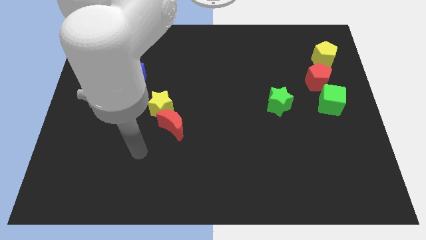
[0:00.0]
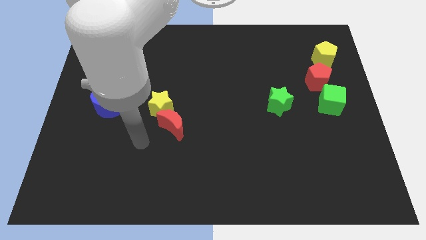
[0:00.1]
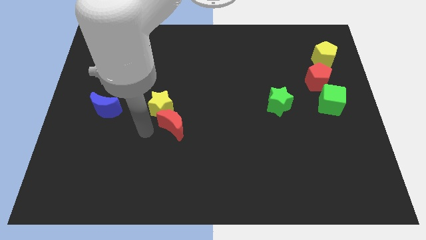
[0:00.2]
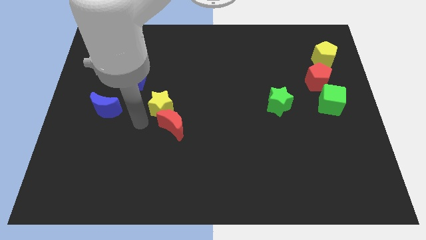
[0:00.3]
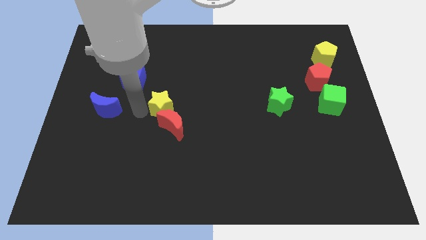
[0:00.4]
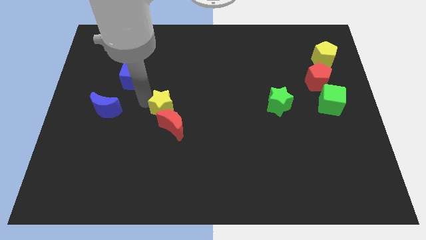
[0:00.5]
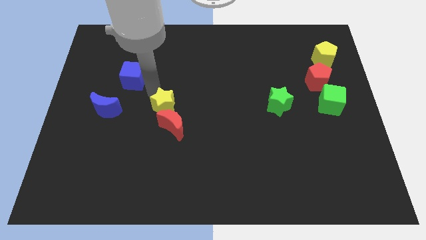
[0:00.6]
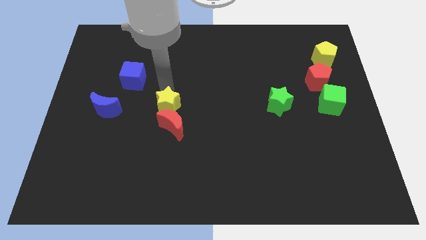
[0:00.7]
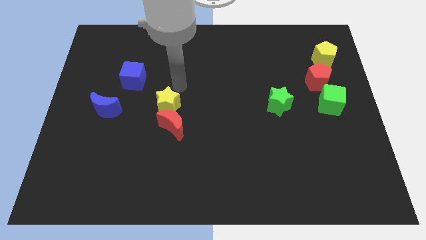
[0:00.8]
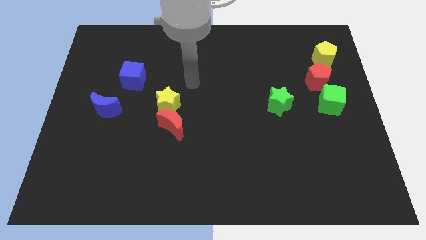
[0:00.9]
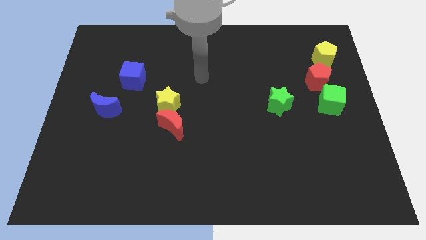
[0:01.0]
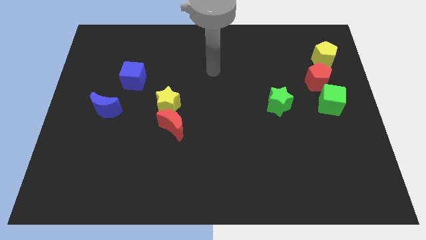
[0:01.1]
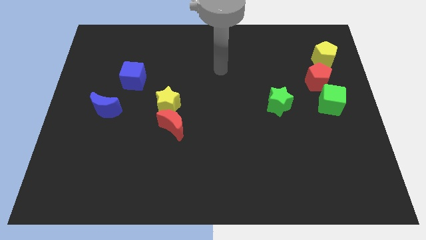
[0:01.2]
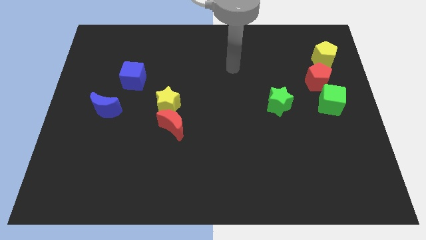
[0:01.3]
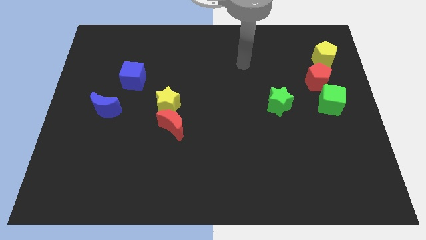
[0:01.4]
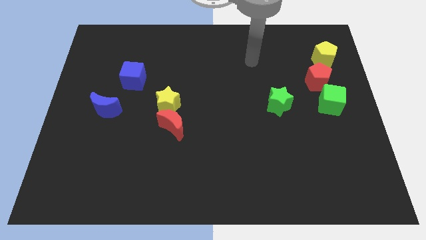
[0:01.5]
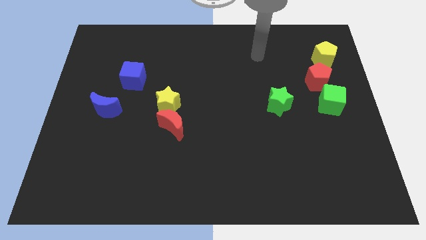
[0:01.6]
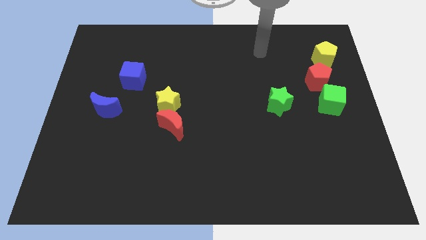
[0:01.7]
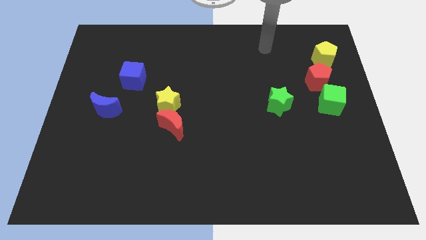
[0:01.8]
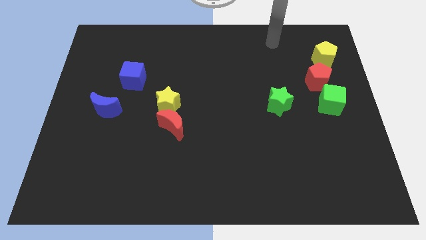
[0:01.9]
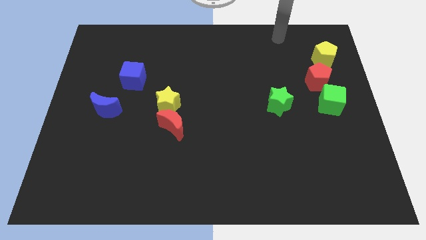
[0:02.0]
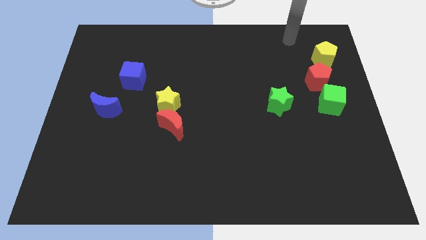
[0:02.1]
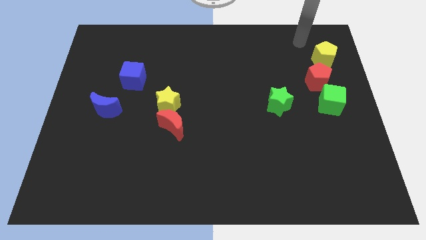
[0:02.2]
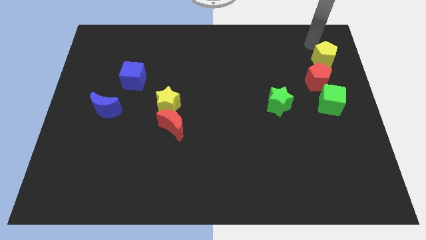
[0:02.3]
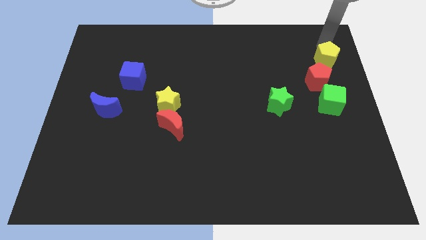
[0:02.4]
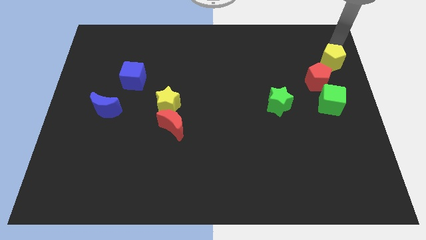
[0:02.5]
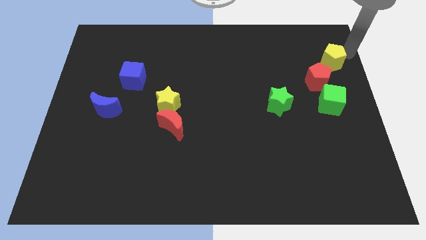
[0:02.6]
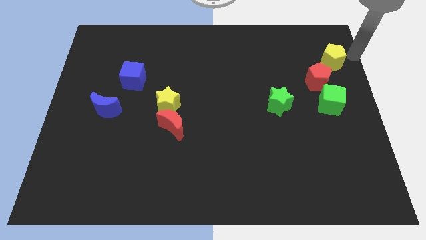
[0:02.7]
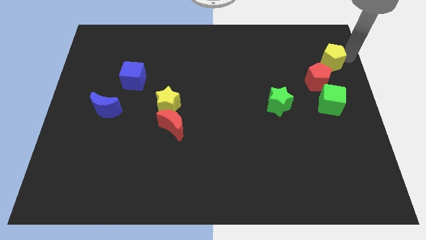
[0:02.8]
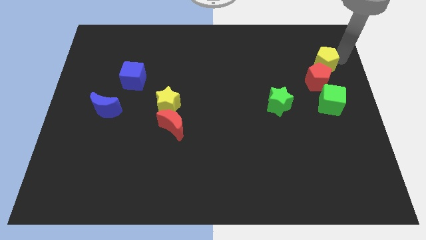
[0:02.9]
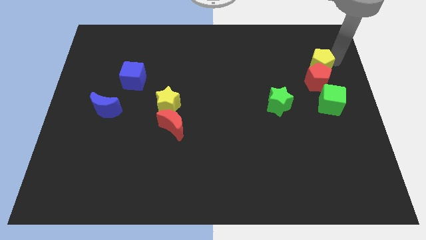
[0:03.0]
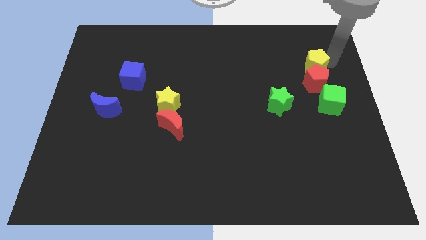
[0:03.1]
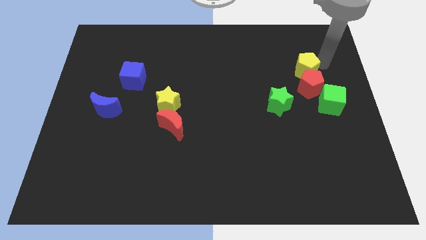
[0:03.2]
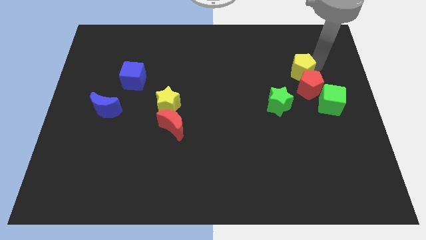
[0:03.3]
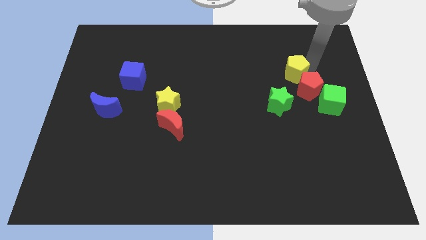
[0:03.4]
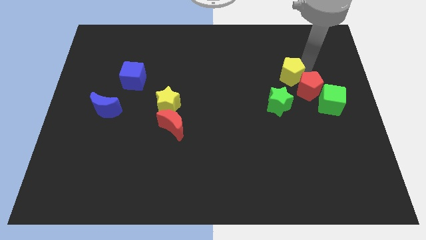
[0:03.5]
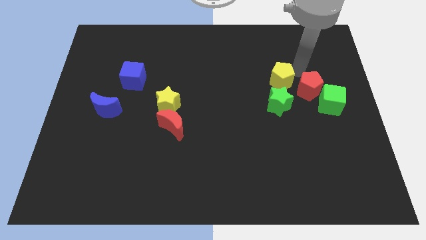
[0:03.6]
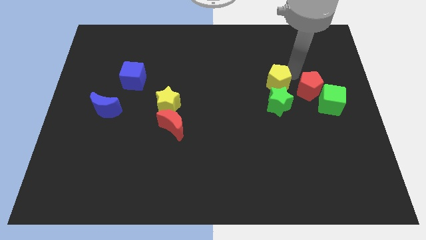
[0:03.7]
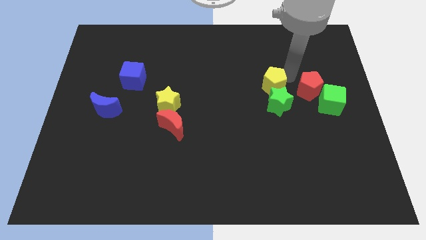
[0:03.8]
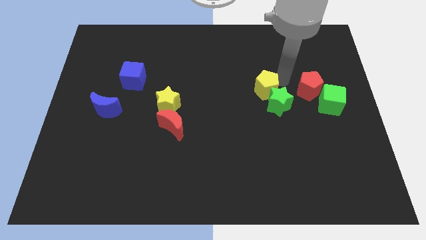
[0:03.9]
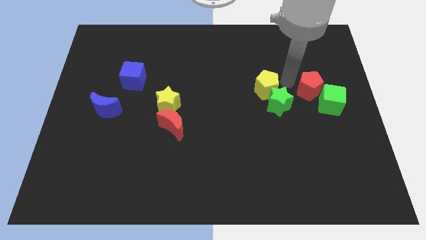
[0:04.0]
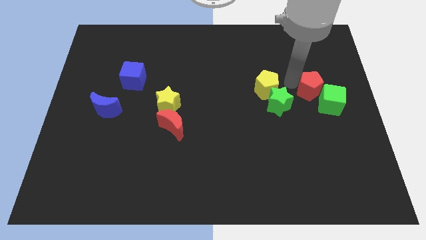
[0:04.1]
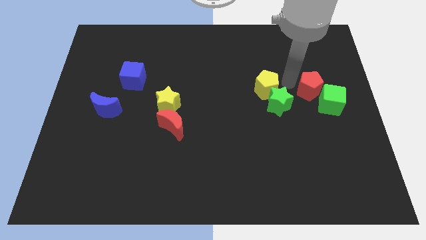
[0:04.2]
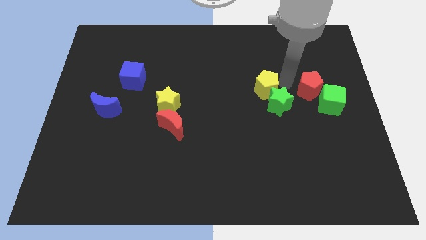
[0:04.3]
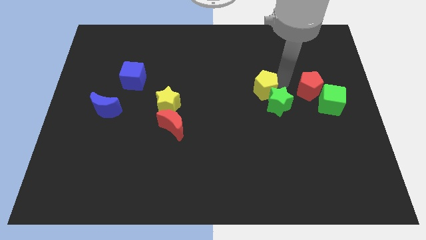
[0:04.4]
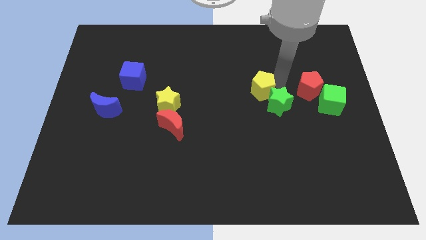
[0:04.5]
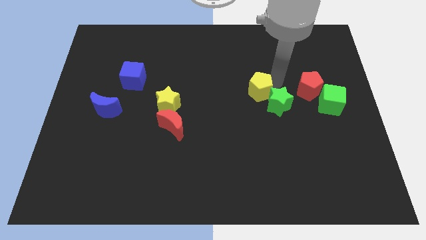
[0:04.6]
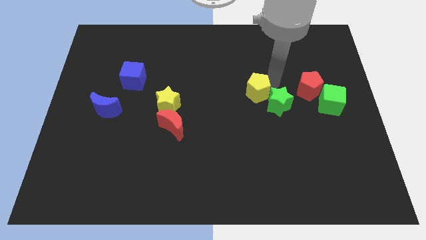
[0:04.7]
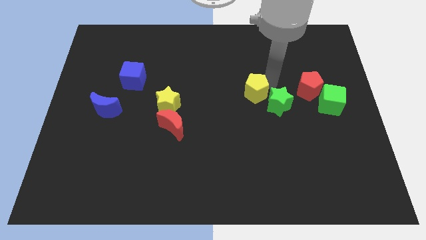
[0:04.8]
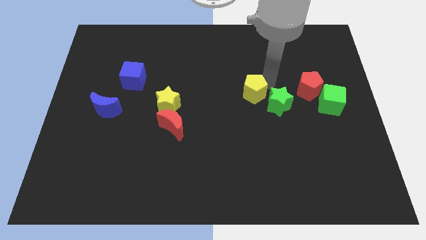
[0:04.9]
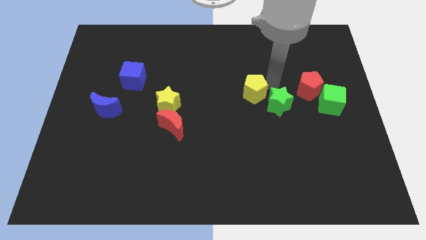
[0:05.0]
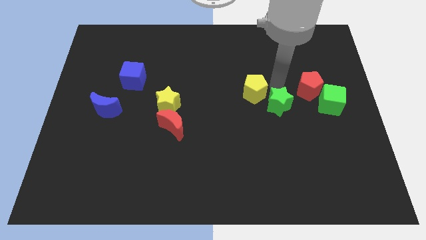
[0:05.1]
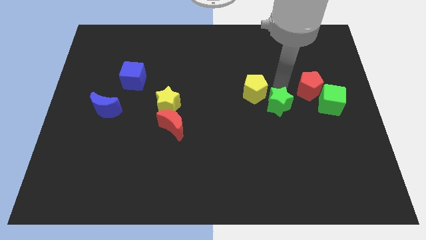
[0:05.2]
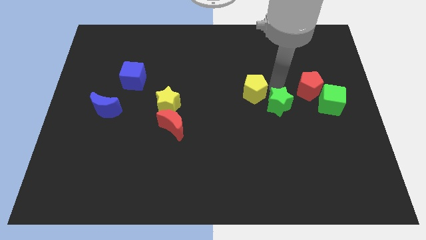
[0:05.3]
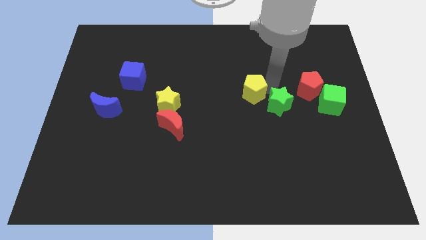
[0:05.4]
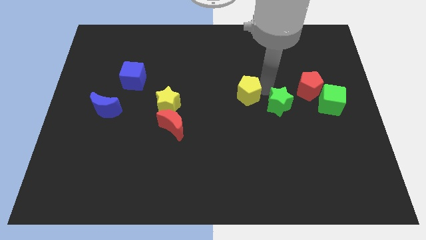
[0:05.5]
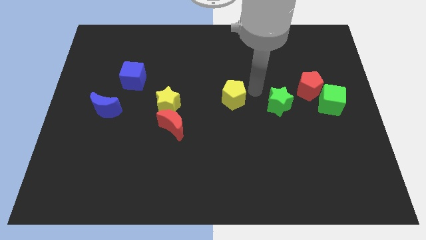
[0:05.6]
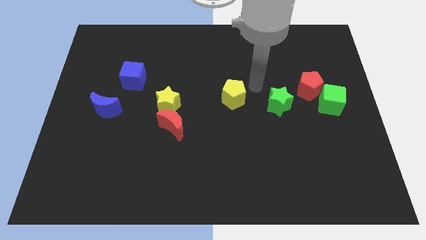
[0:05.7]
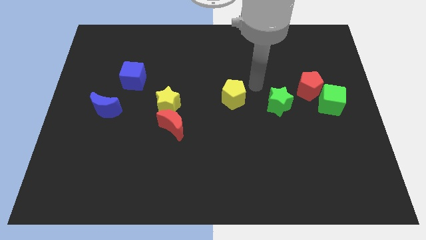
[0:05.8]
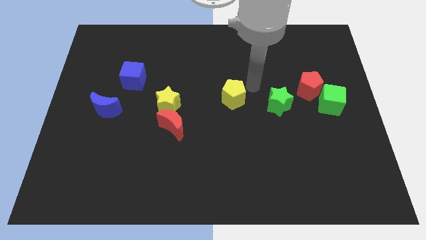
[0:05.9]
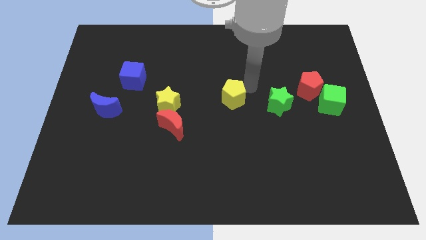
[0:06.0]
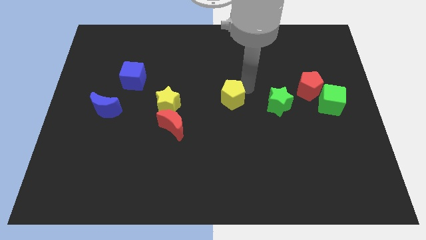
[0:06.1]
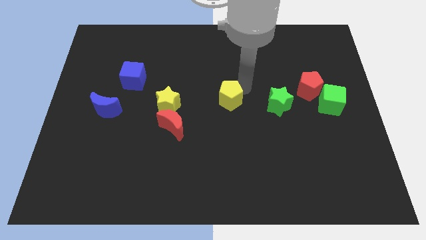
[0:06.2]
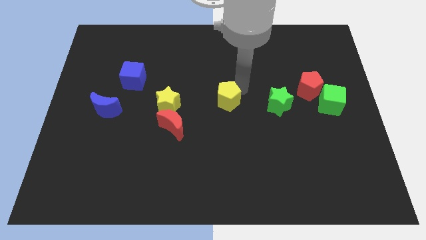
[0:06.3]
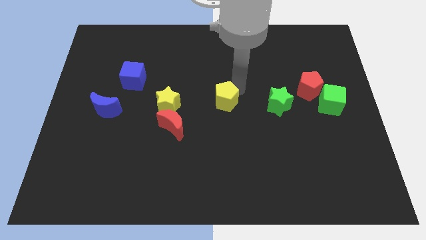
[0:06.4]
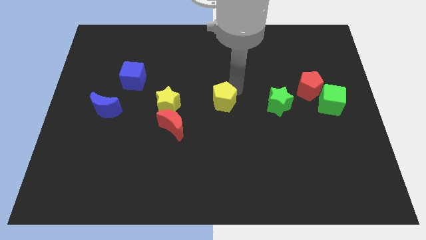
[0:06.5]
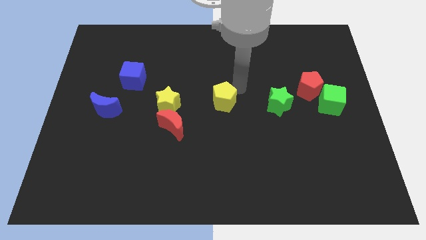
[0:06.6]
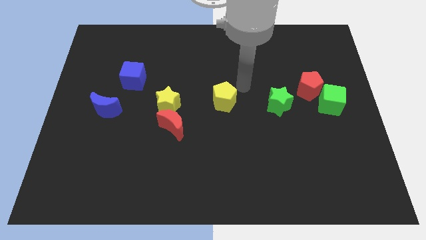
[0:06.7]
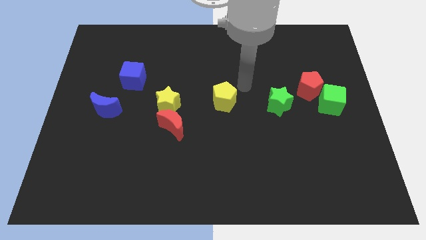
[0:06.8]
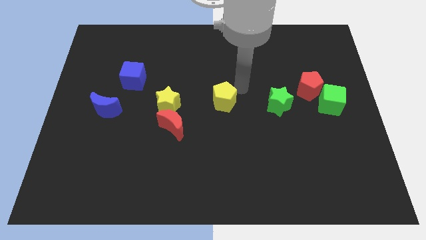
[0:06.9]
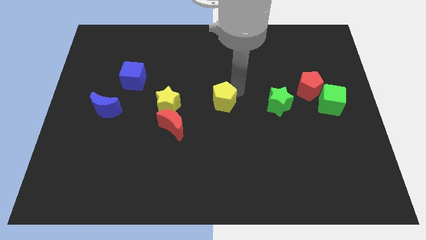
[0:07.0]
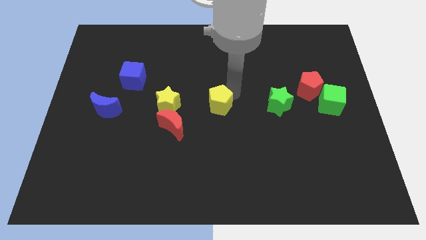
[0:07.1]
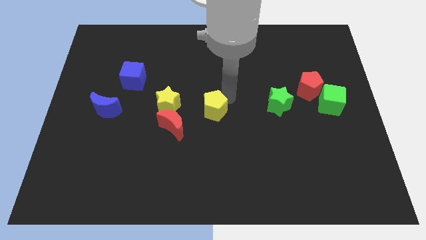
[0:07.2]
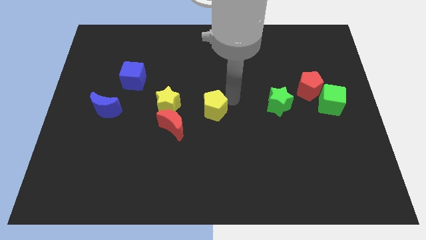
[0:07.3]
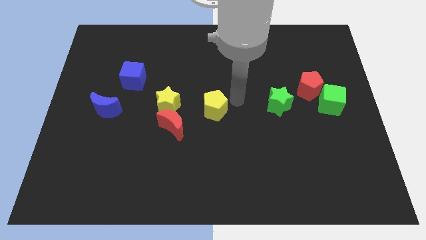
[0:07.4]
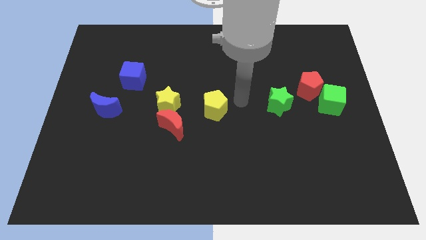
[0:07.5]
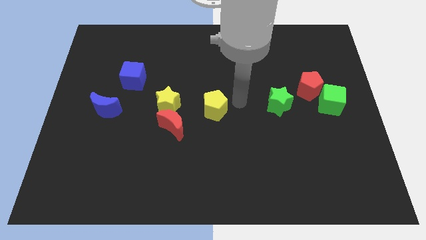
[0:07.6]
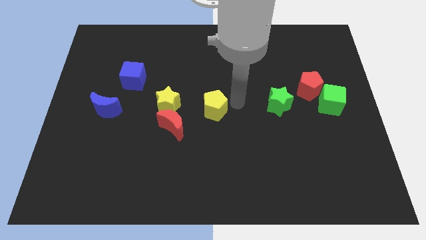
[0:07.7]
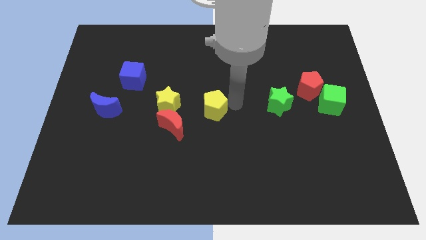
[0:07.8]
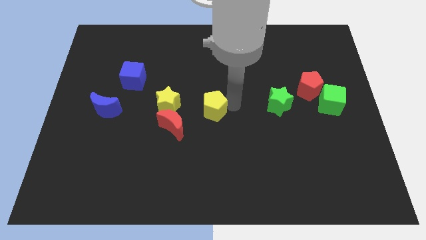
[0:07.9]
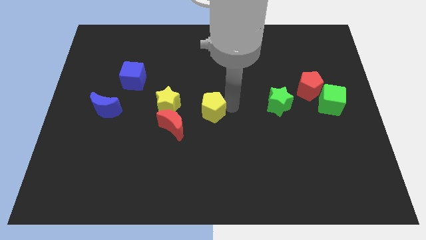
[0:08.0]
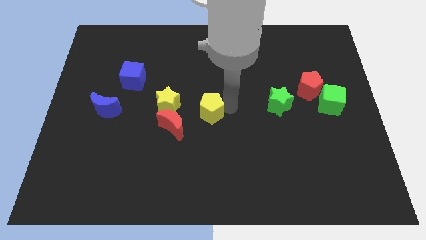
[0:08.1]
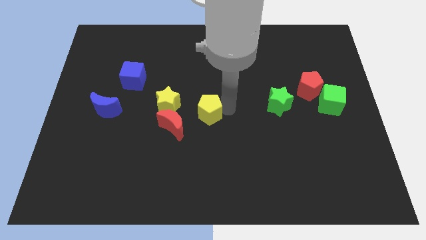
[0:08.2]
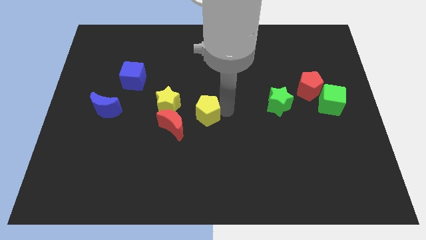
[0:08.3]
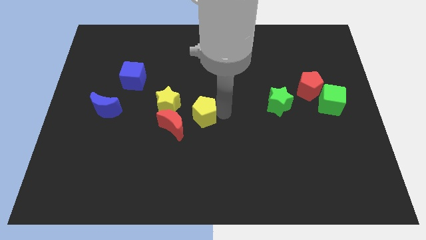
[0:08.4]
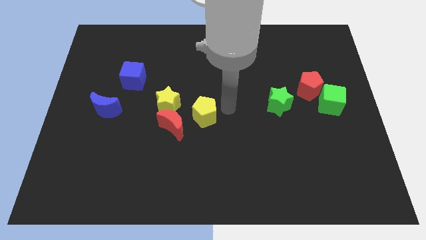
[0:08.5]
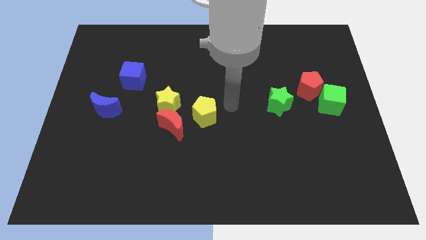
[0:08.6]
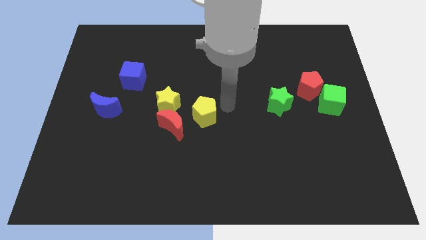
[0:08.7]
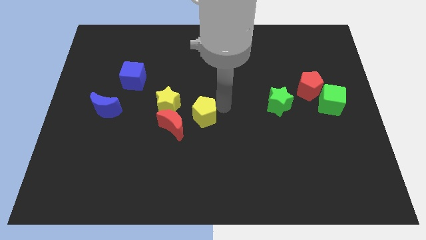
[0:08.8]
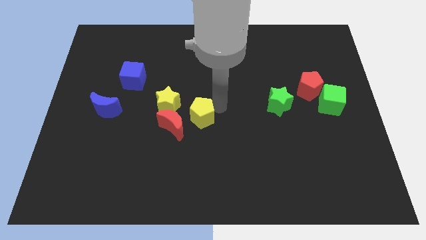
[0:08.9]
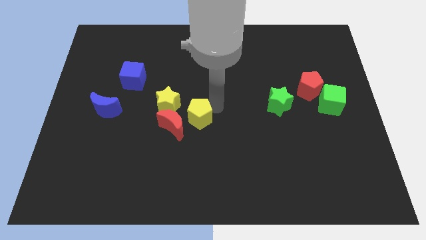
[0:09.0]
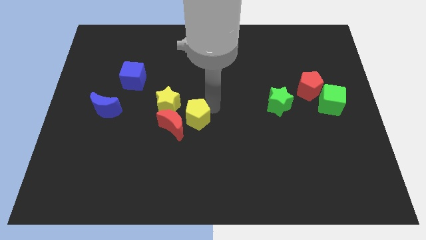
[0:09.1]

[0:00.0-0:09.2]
push the yellow pentagon towards the red moon
